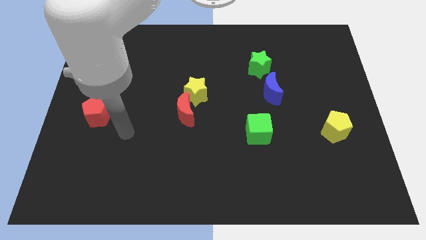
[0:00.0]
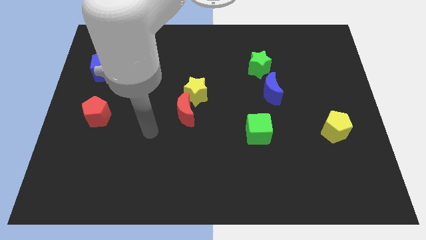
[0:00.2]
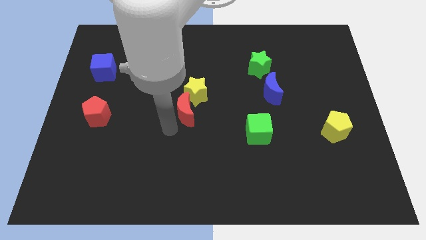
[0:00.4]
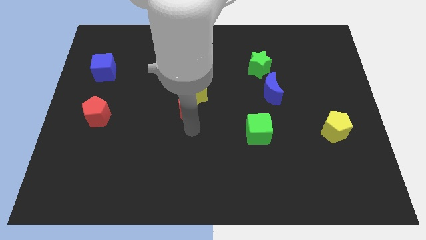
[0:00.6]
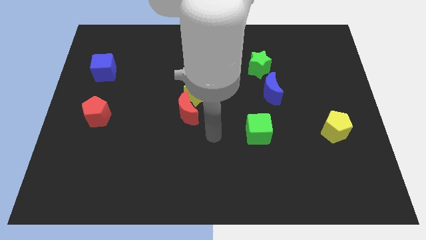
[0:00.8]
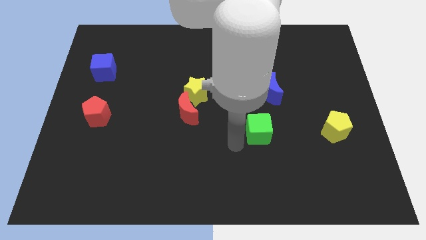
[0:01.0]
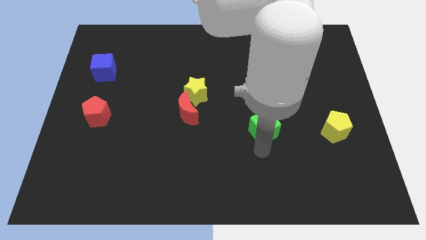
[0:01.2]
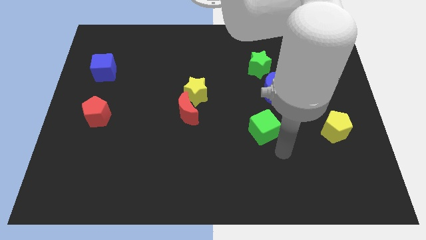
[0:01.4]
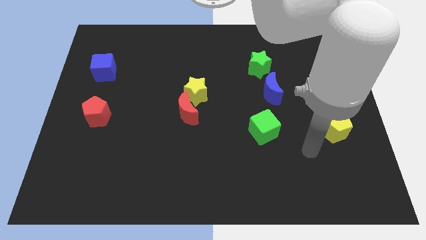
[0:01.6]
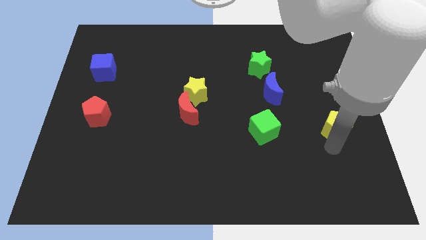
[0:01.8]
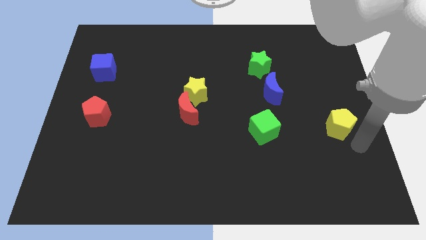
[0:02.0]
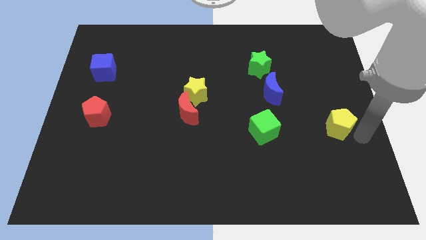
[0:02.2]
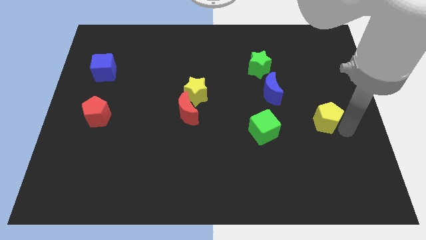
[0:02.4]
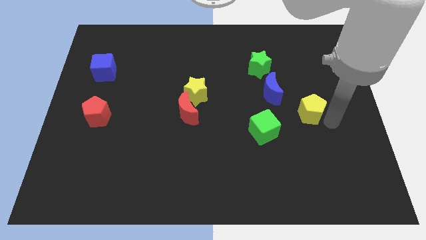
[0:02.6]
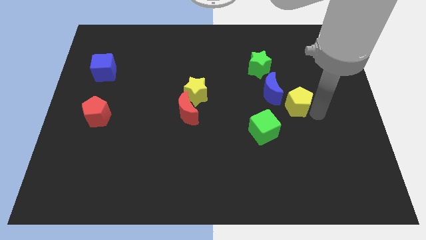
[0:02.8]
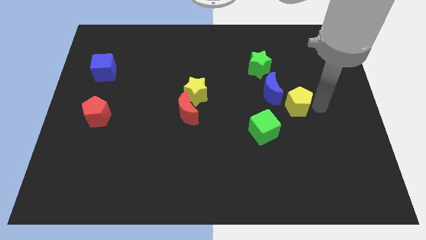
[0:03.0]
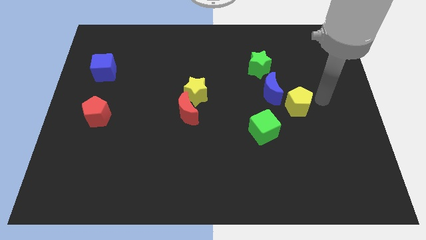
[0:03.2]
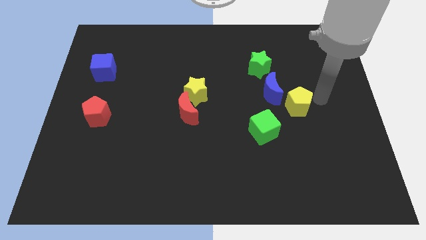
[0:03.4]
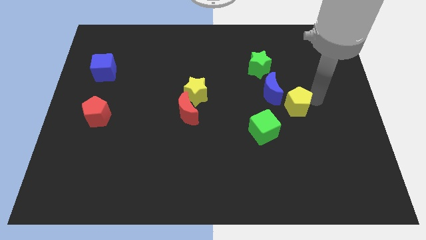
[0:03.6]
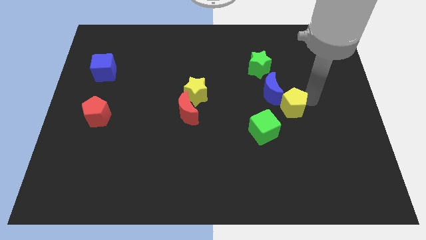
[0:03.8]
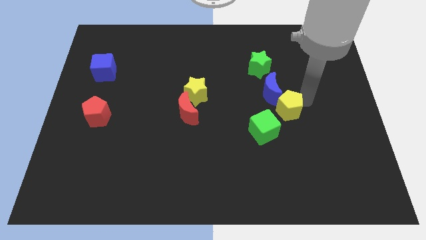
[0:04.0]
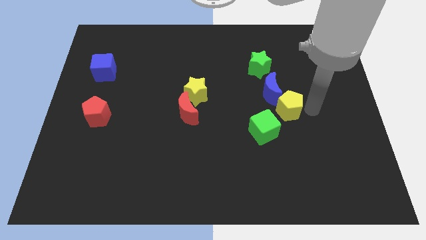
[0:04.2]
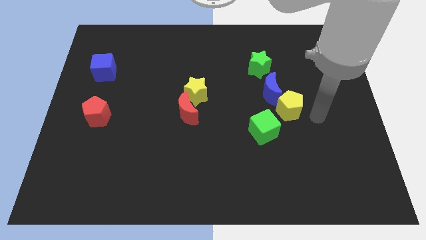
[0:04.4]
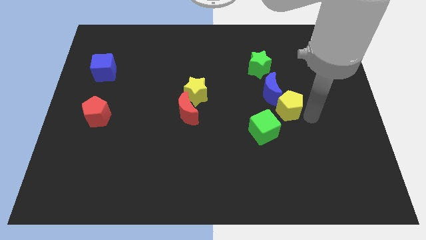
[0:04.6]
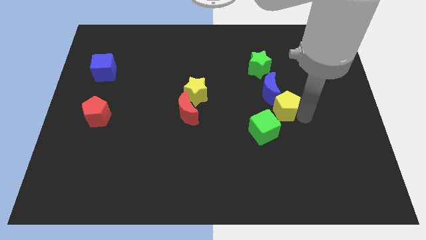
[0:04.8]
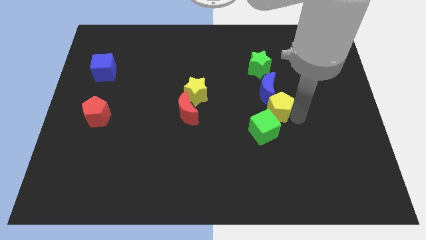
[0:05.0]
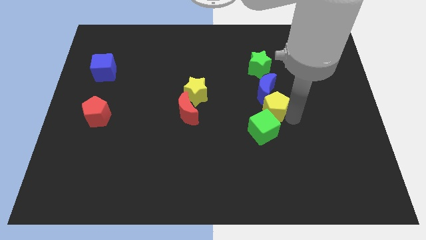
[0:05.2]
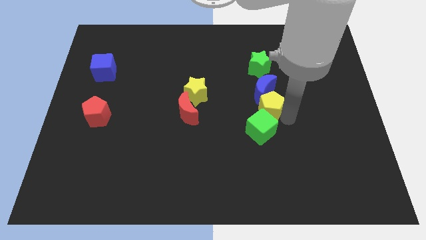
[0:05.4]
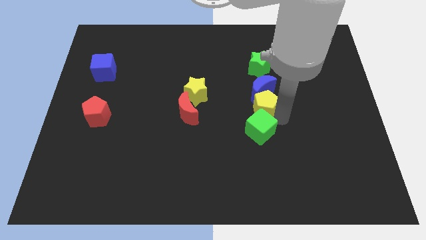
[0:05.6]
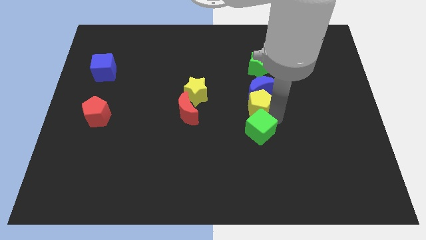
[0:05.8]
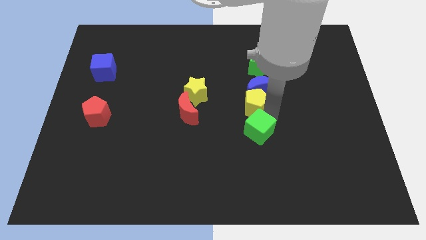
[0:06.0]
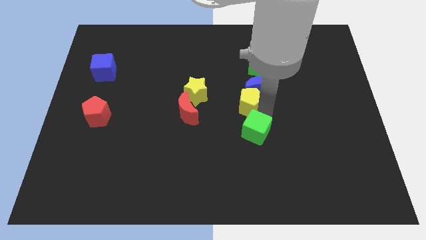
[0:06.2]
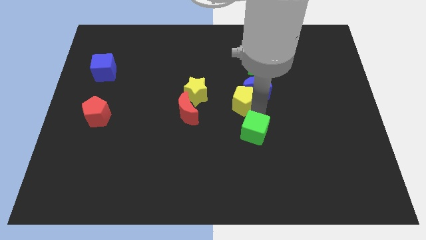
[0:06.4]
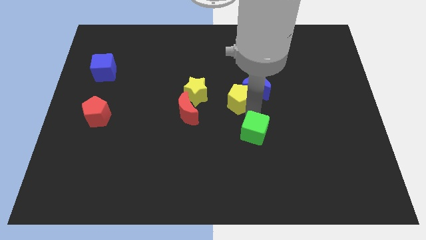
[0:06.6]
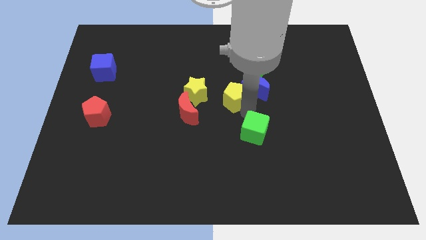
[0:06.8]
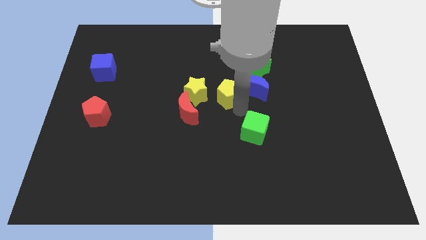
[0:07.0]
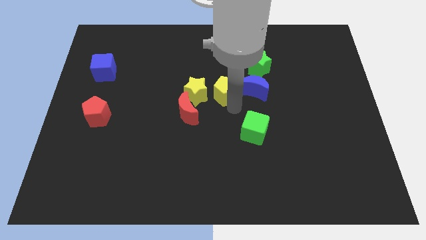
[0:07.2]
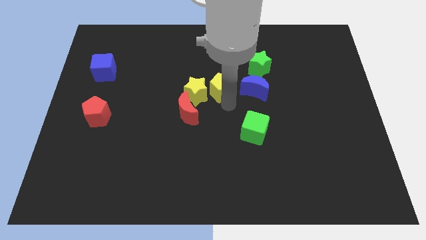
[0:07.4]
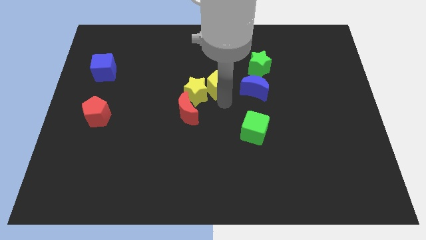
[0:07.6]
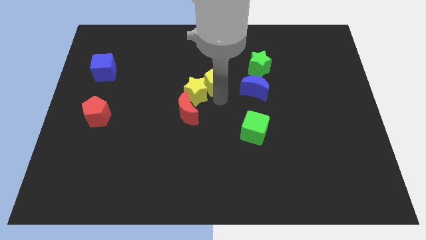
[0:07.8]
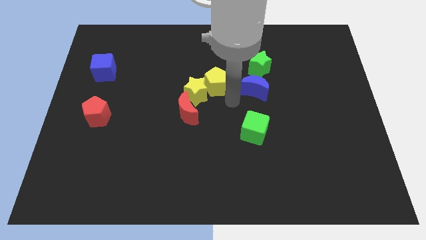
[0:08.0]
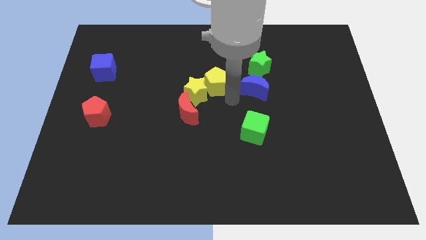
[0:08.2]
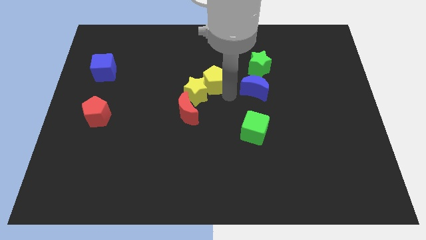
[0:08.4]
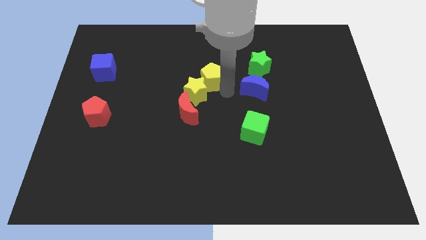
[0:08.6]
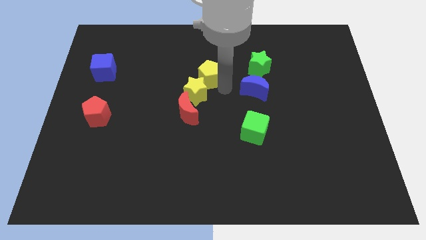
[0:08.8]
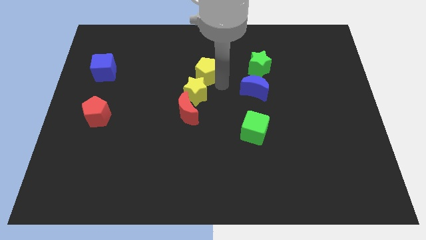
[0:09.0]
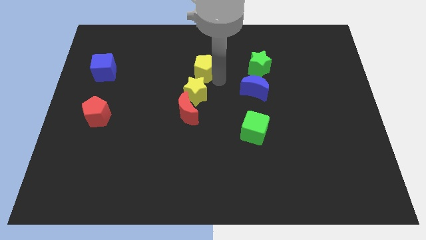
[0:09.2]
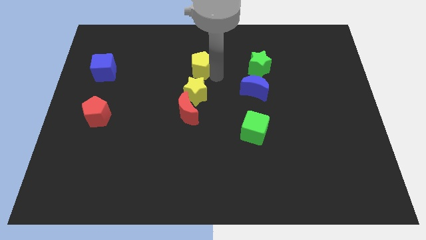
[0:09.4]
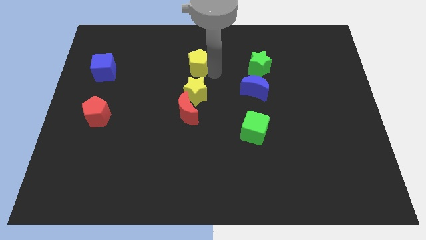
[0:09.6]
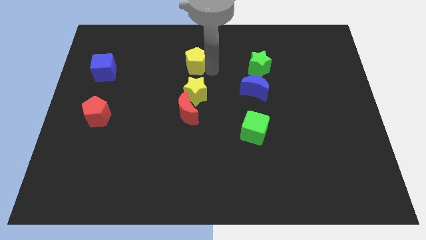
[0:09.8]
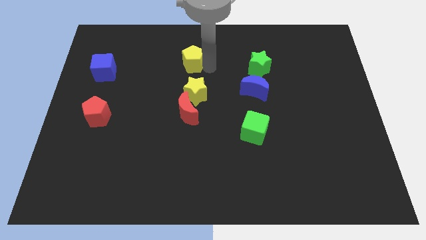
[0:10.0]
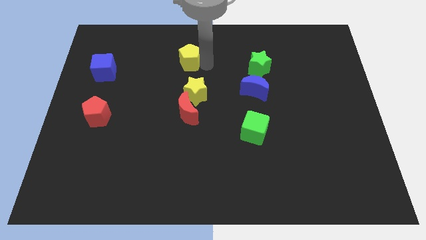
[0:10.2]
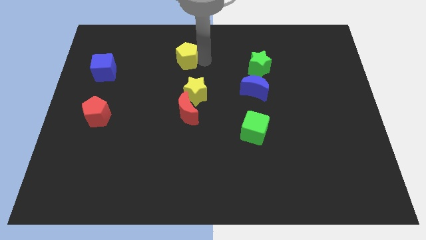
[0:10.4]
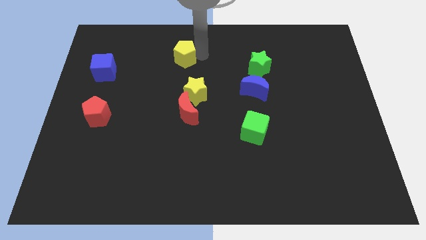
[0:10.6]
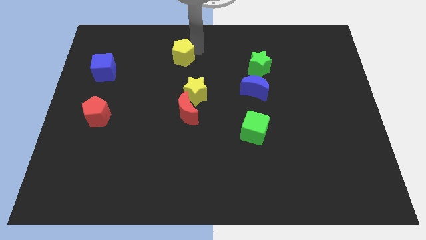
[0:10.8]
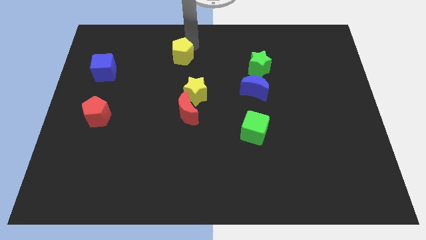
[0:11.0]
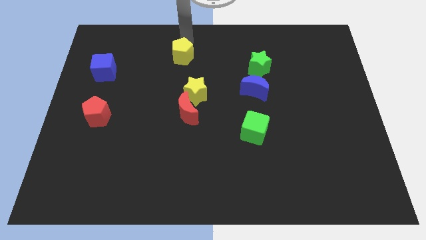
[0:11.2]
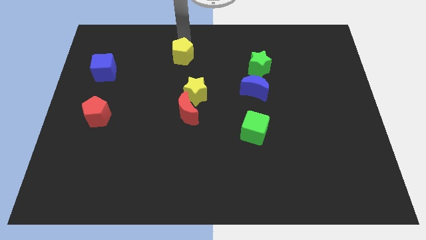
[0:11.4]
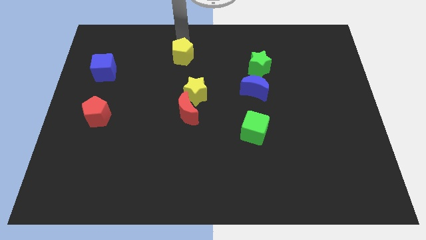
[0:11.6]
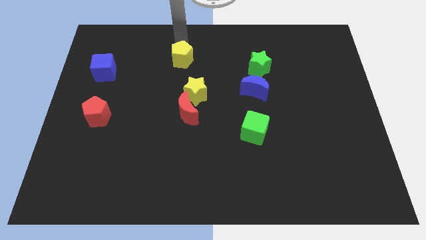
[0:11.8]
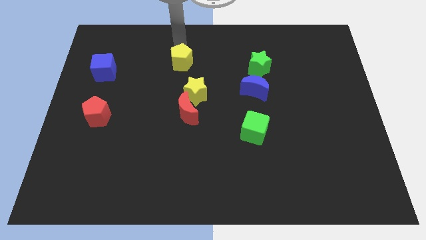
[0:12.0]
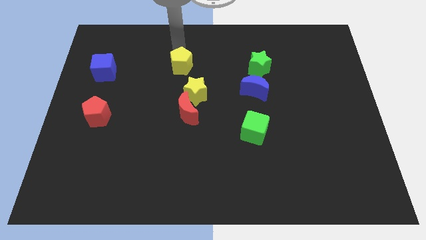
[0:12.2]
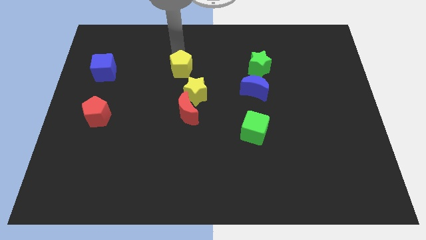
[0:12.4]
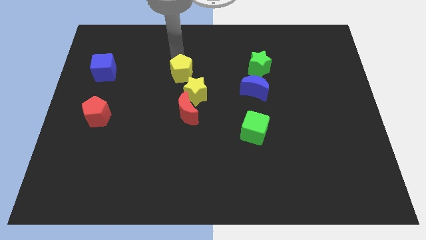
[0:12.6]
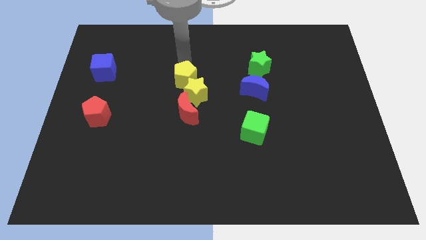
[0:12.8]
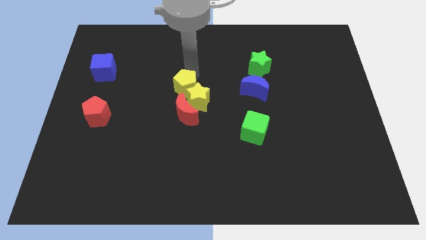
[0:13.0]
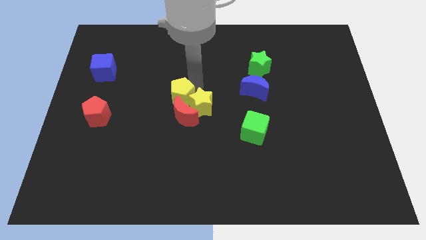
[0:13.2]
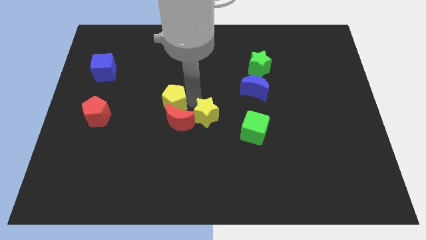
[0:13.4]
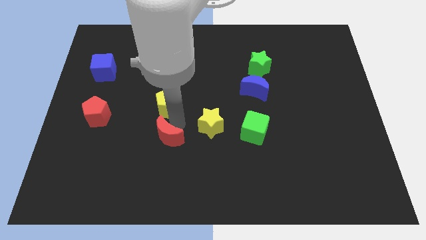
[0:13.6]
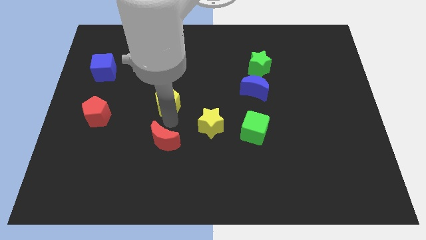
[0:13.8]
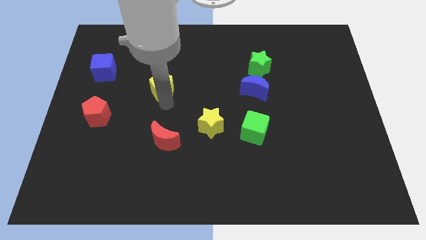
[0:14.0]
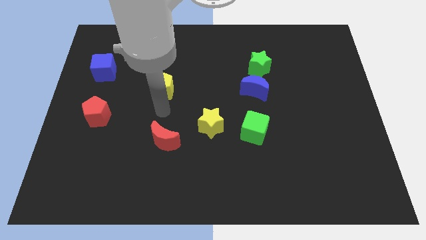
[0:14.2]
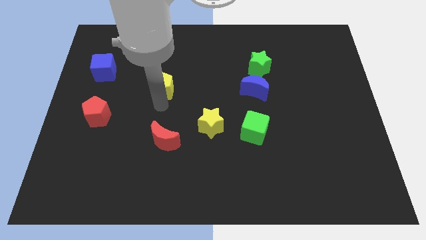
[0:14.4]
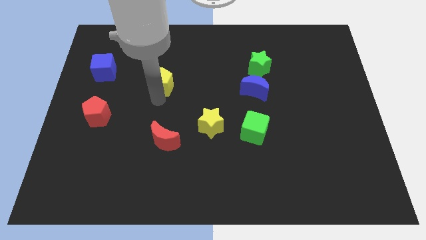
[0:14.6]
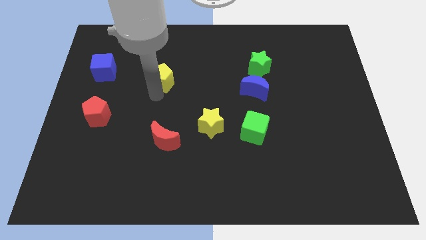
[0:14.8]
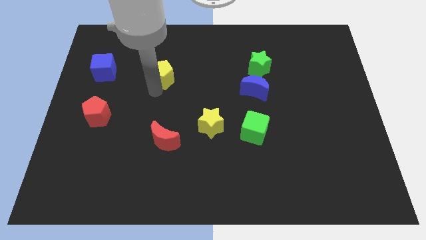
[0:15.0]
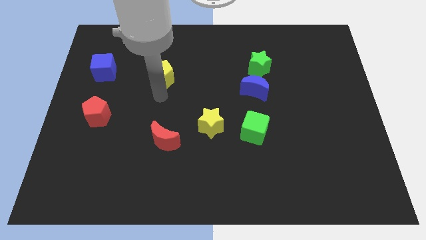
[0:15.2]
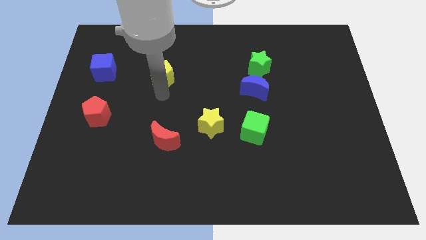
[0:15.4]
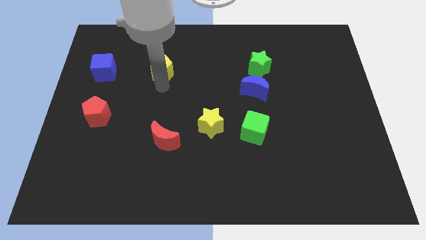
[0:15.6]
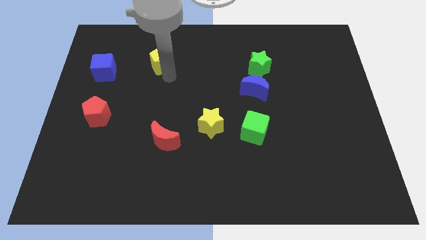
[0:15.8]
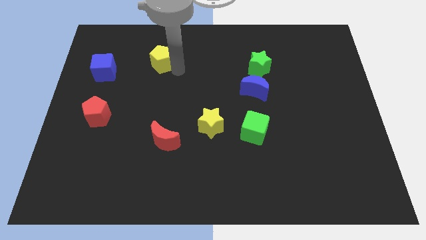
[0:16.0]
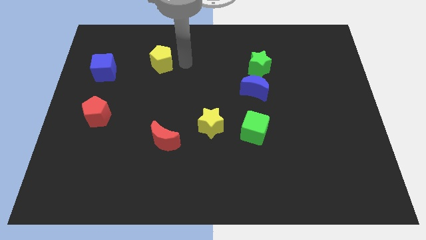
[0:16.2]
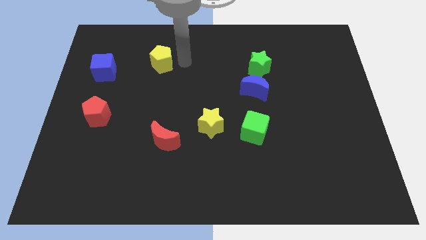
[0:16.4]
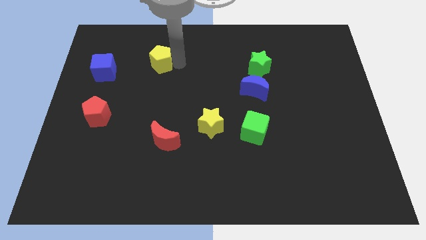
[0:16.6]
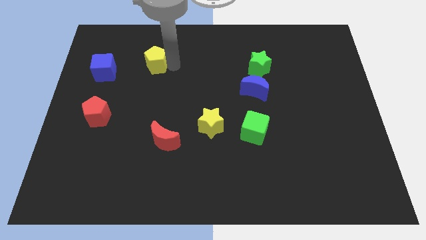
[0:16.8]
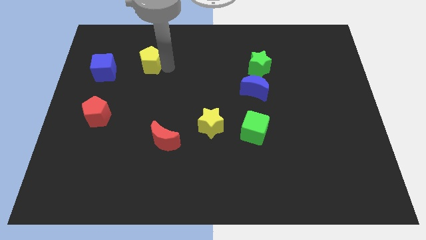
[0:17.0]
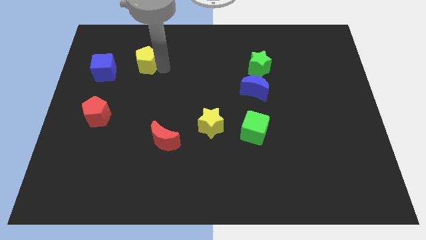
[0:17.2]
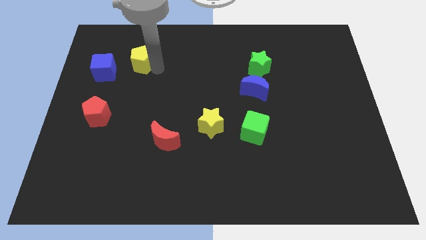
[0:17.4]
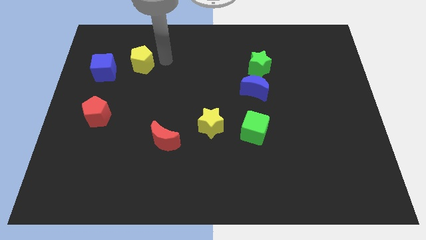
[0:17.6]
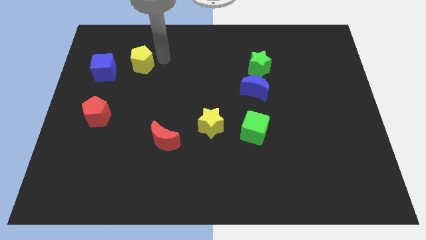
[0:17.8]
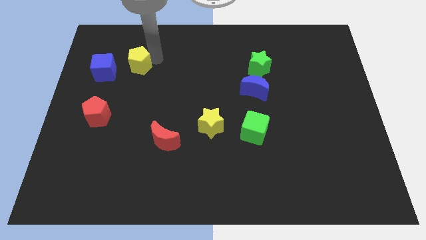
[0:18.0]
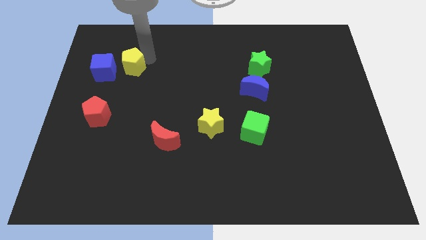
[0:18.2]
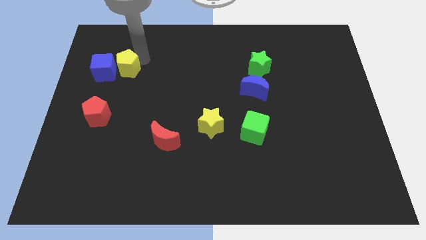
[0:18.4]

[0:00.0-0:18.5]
put the yellow pentagon towards the blue cube
